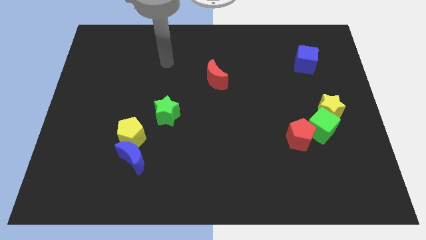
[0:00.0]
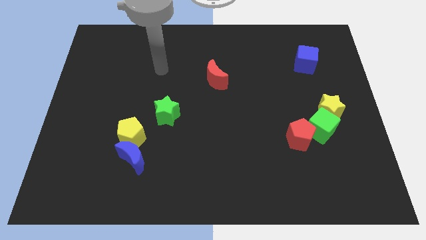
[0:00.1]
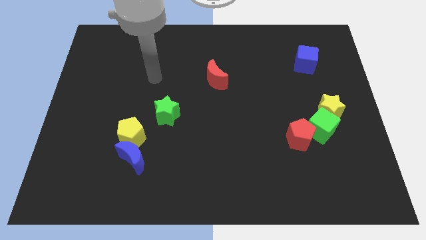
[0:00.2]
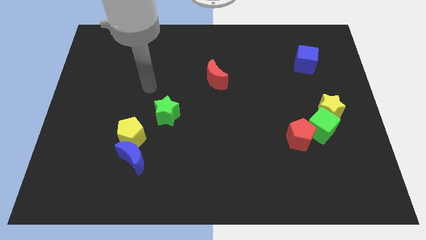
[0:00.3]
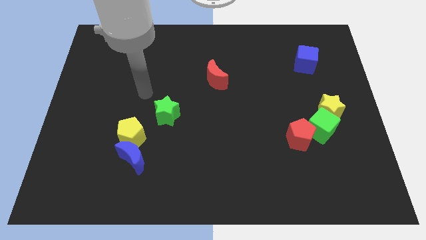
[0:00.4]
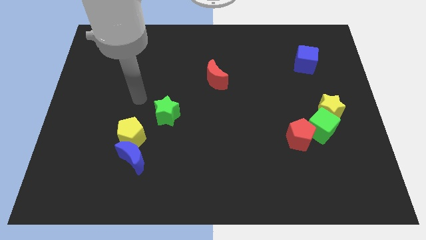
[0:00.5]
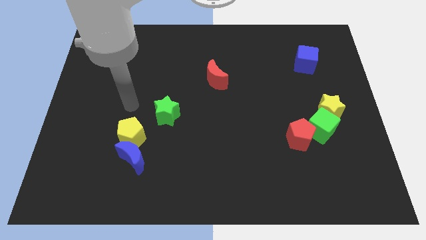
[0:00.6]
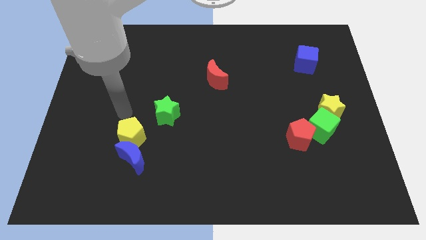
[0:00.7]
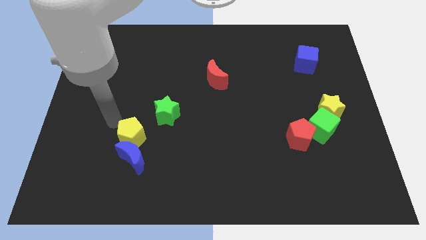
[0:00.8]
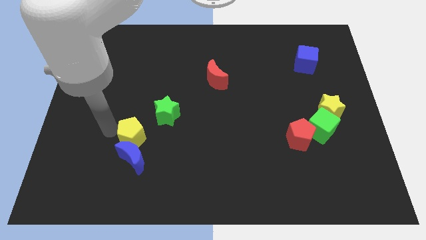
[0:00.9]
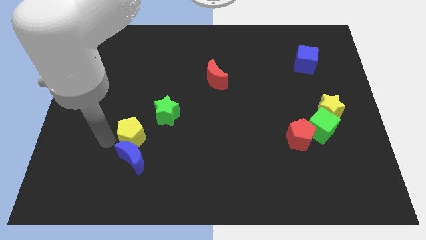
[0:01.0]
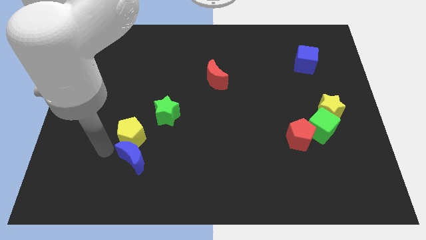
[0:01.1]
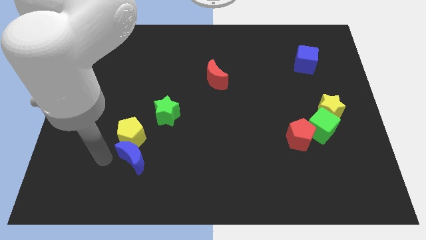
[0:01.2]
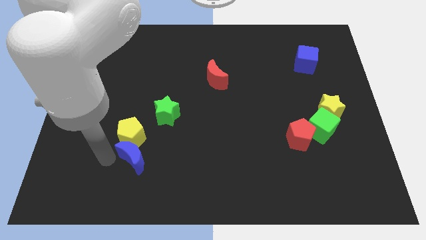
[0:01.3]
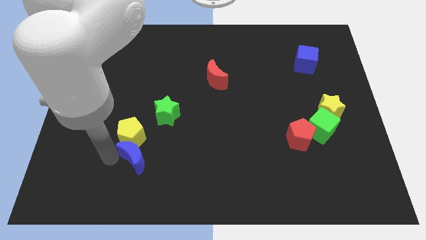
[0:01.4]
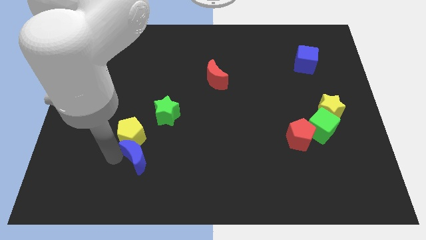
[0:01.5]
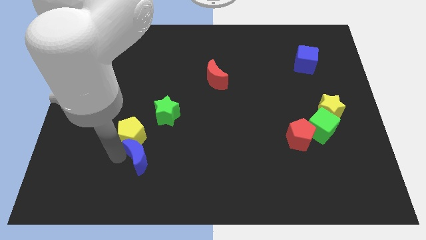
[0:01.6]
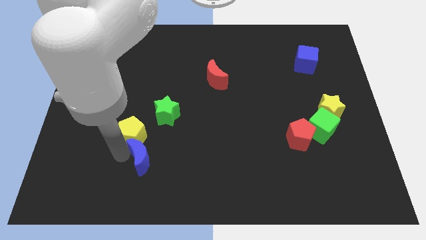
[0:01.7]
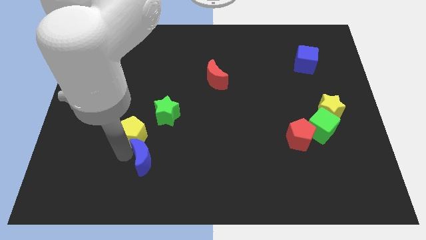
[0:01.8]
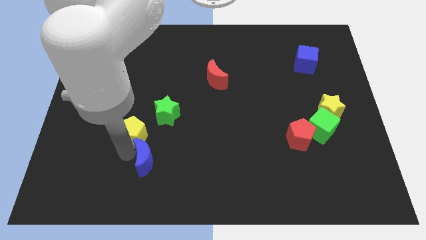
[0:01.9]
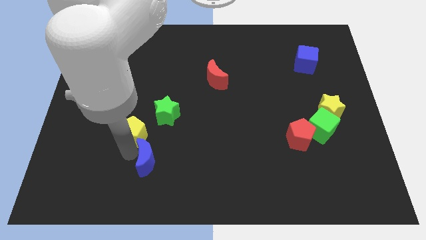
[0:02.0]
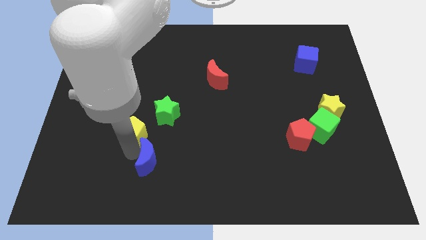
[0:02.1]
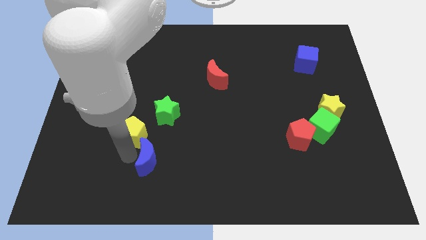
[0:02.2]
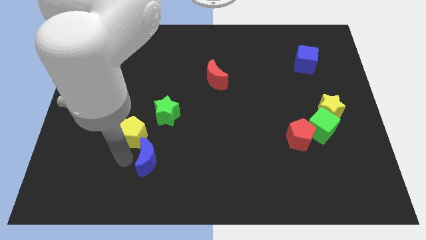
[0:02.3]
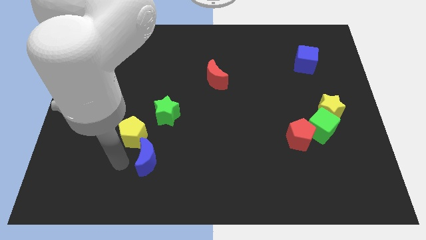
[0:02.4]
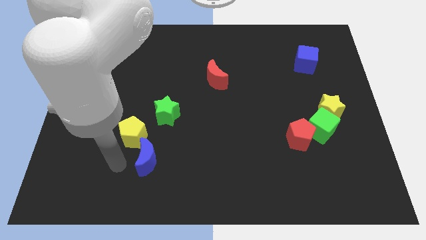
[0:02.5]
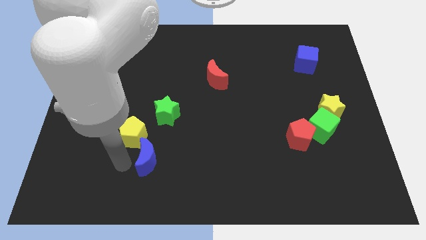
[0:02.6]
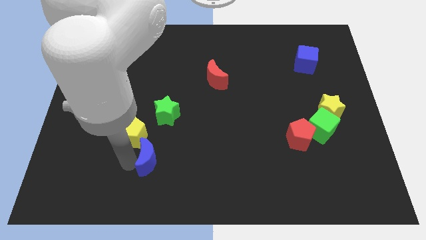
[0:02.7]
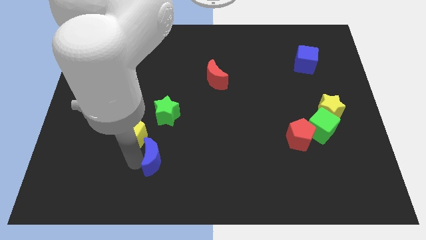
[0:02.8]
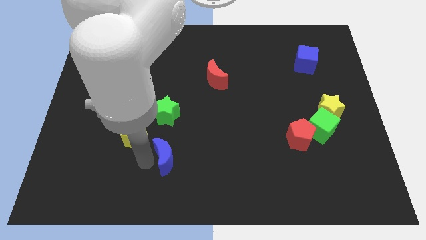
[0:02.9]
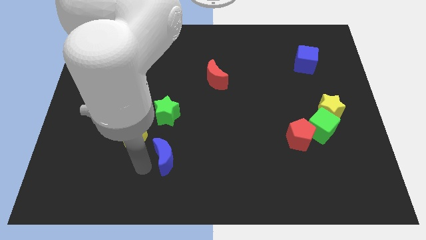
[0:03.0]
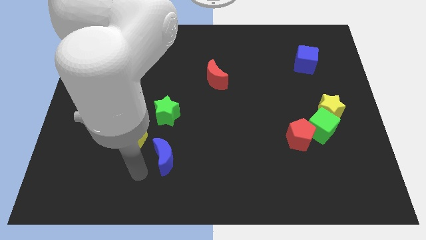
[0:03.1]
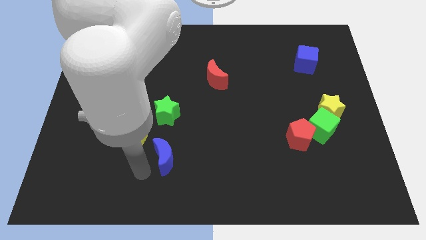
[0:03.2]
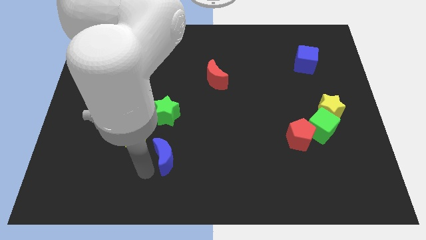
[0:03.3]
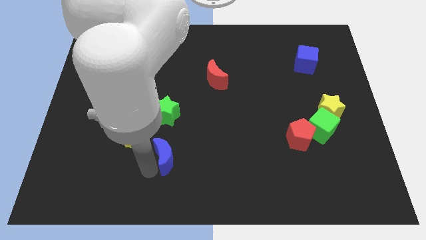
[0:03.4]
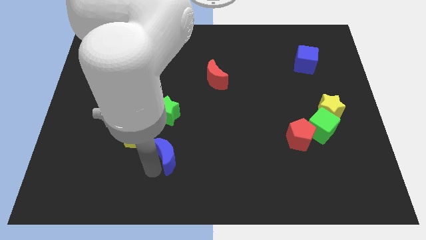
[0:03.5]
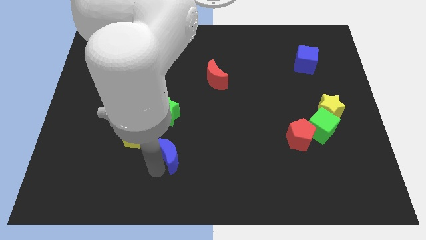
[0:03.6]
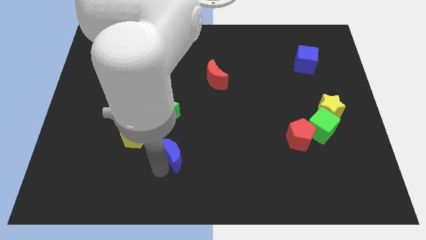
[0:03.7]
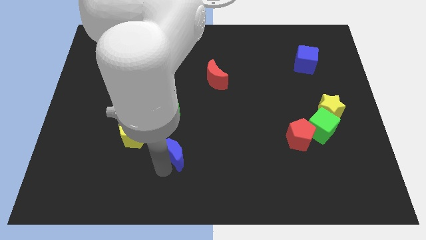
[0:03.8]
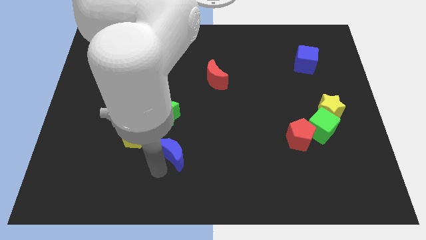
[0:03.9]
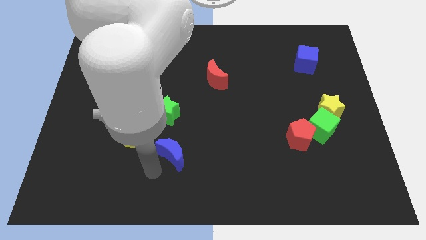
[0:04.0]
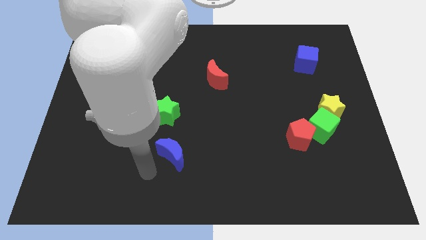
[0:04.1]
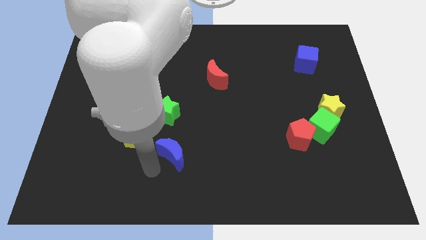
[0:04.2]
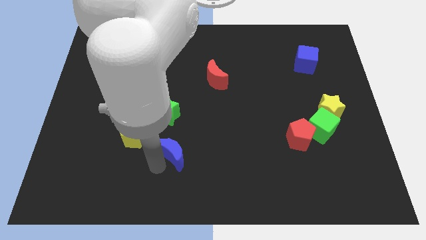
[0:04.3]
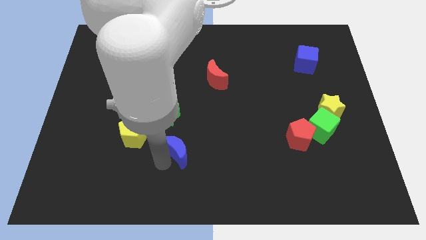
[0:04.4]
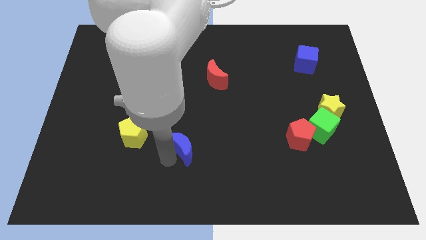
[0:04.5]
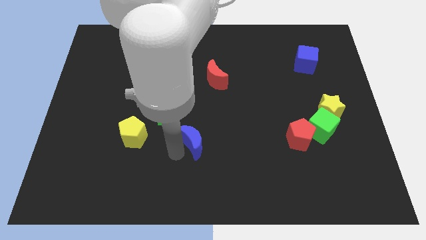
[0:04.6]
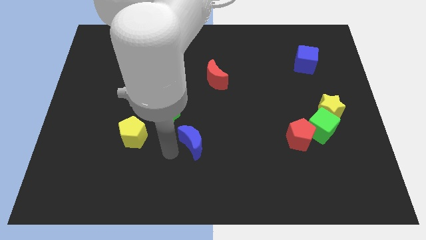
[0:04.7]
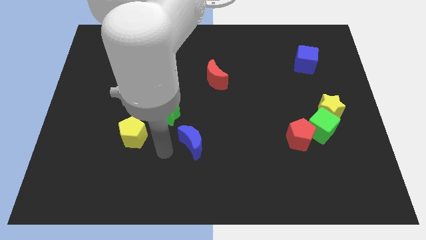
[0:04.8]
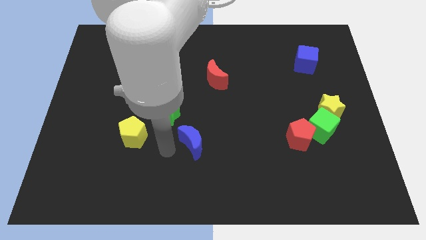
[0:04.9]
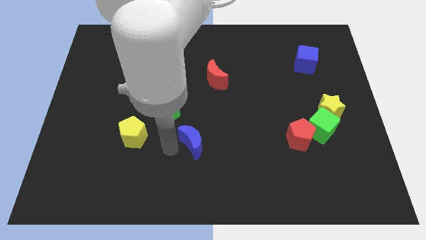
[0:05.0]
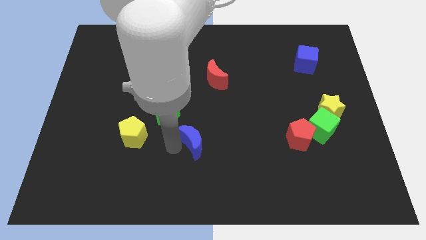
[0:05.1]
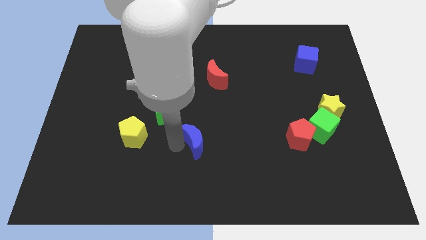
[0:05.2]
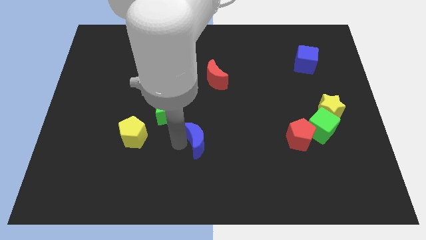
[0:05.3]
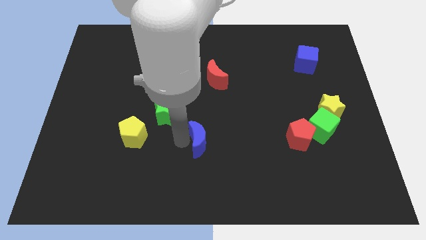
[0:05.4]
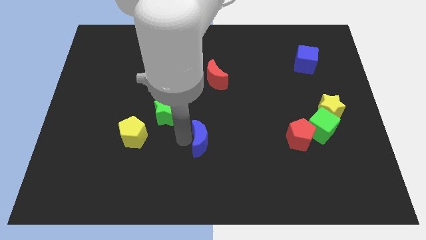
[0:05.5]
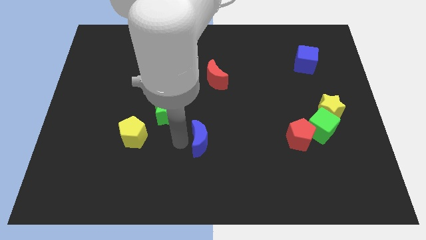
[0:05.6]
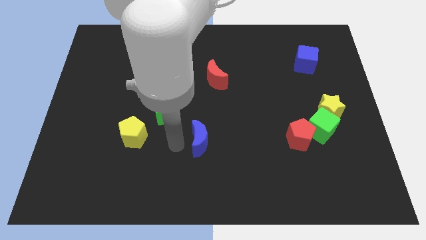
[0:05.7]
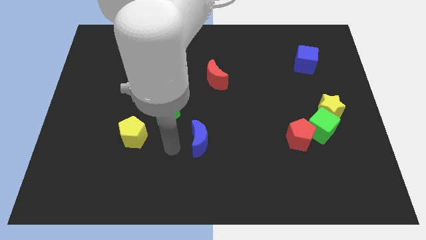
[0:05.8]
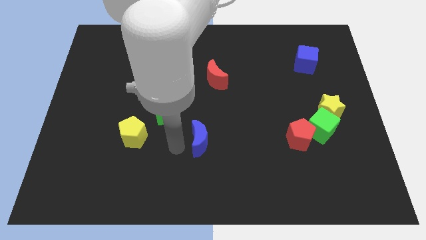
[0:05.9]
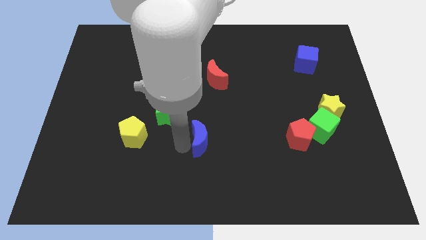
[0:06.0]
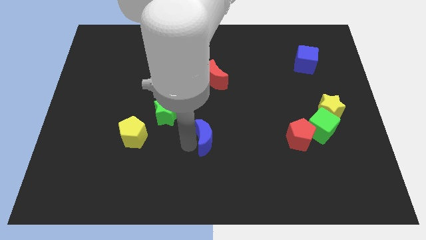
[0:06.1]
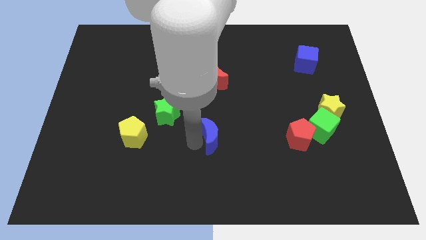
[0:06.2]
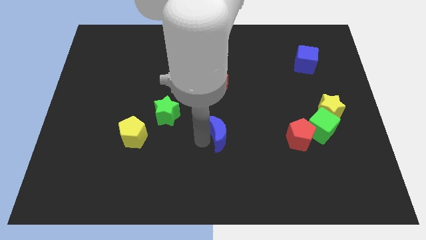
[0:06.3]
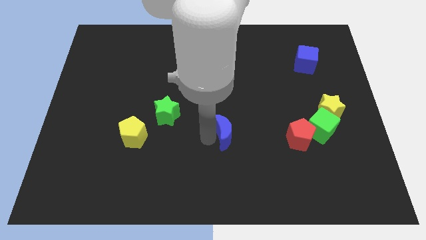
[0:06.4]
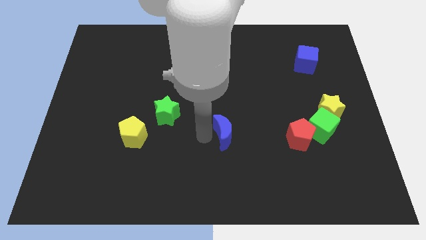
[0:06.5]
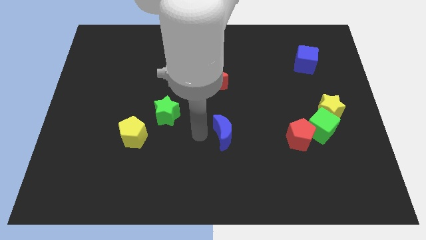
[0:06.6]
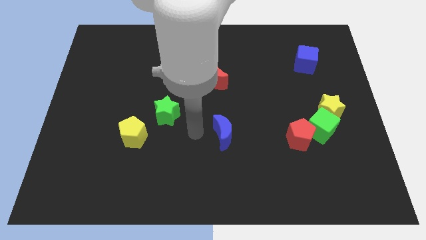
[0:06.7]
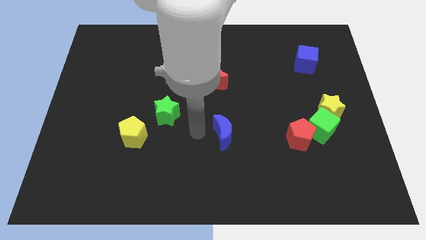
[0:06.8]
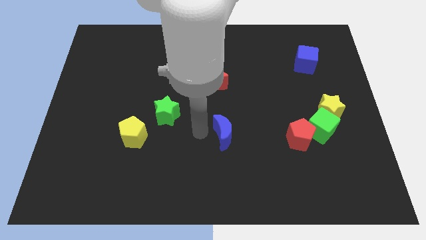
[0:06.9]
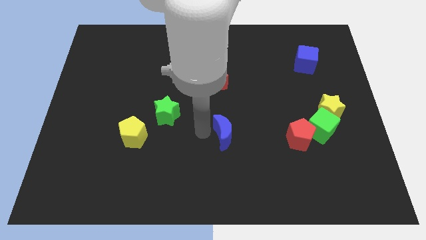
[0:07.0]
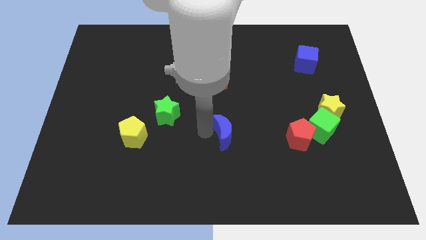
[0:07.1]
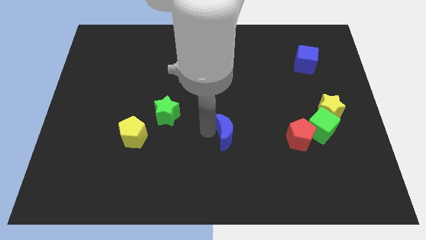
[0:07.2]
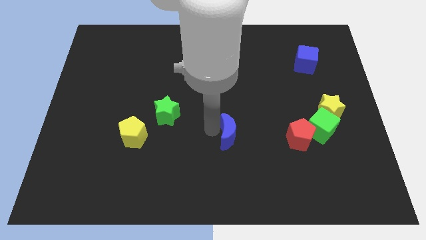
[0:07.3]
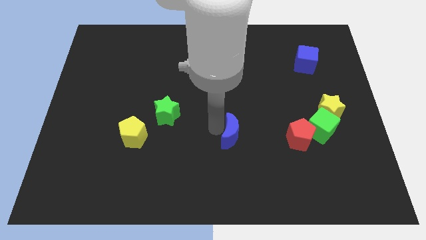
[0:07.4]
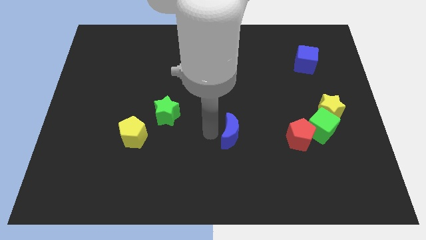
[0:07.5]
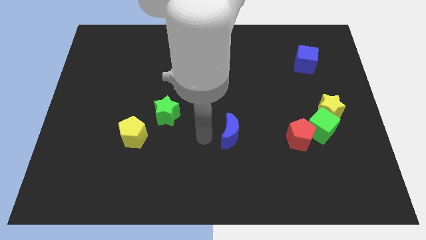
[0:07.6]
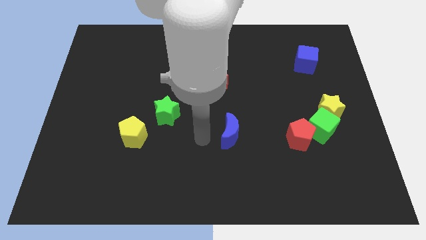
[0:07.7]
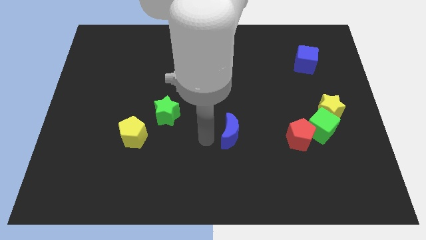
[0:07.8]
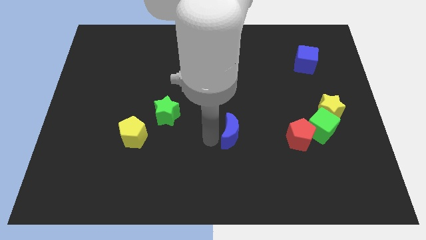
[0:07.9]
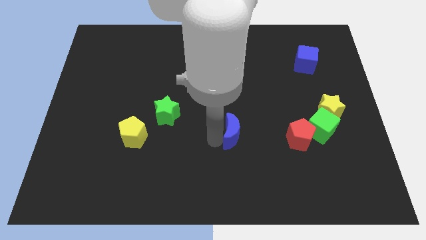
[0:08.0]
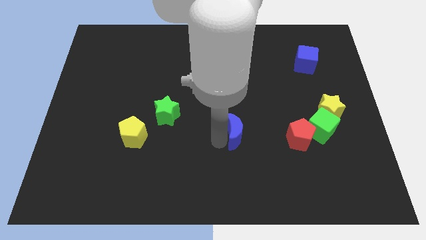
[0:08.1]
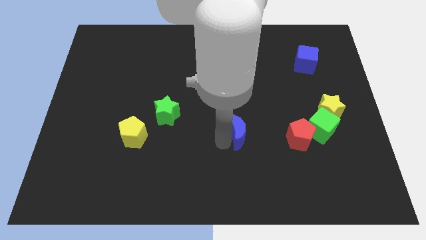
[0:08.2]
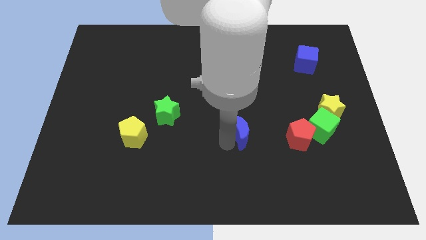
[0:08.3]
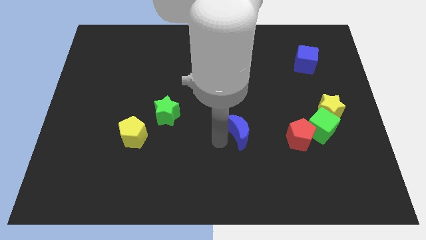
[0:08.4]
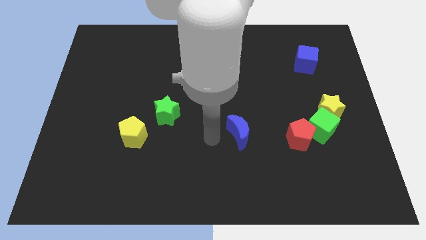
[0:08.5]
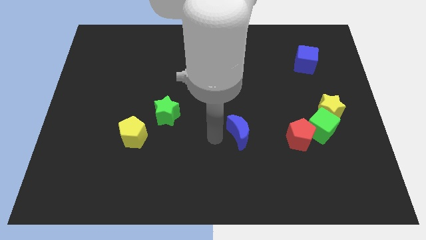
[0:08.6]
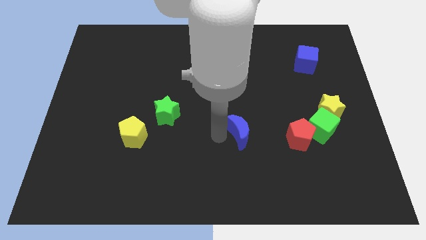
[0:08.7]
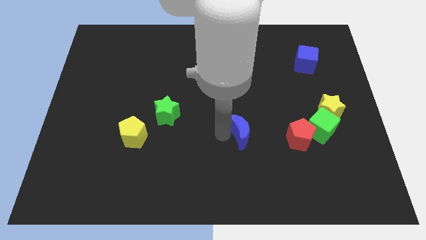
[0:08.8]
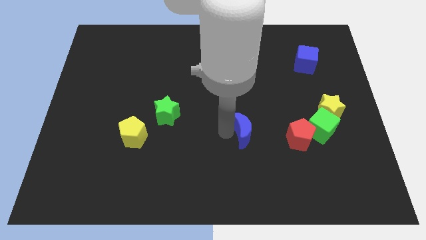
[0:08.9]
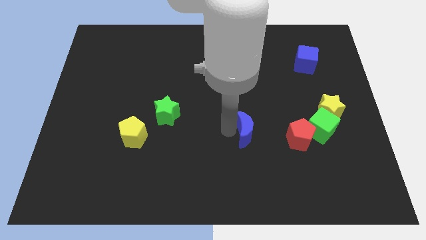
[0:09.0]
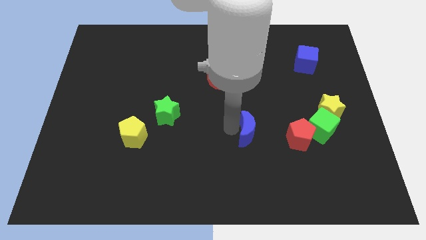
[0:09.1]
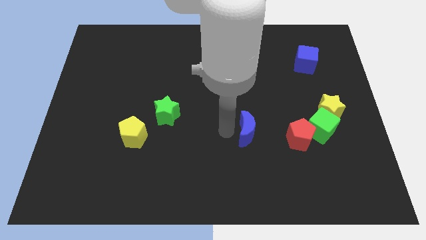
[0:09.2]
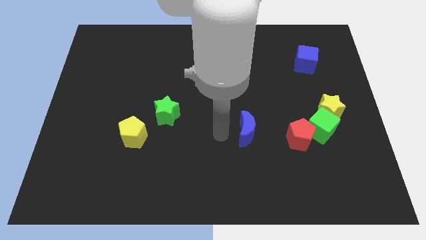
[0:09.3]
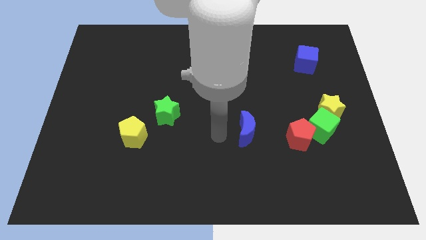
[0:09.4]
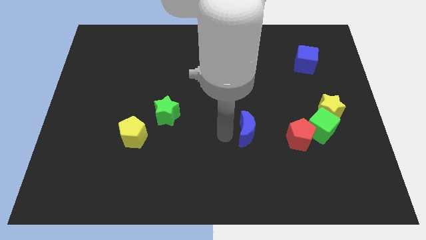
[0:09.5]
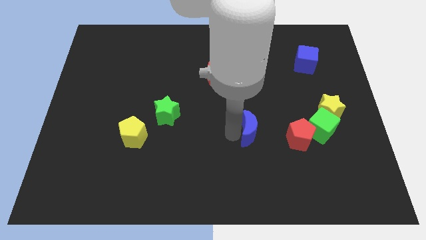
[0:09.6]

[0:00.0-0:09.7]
slide the blue moon to the left side of the green cube
